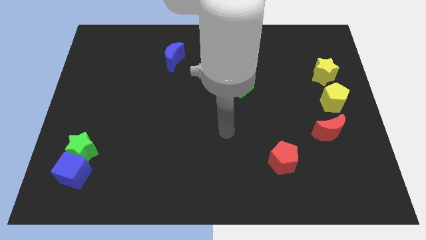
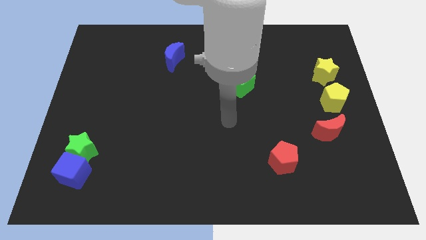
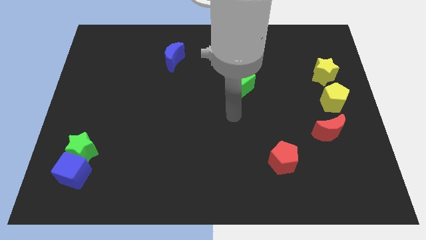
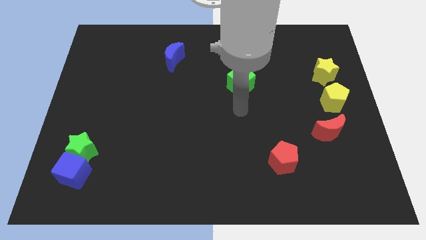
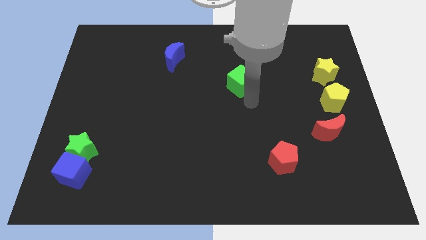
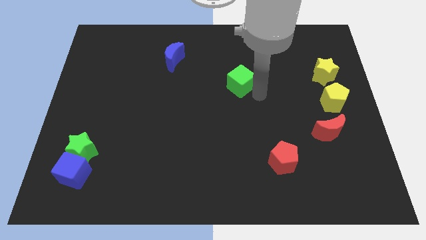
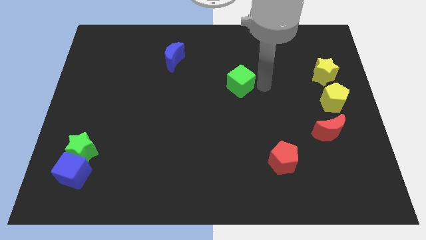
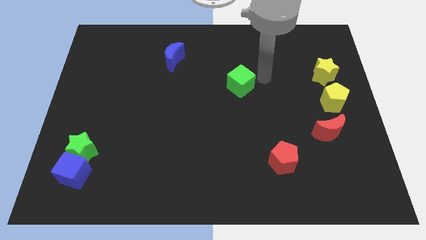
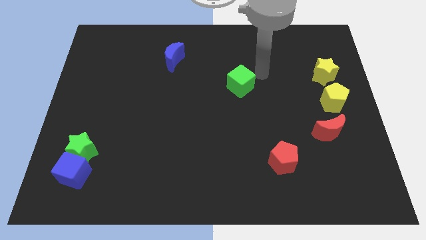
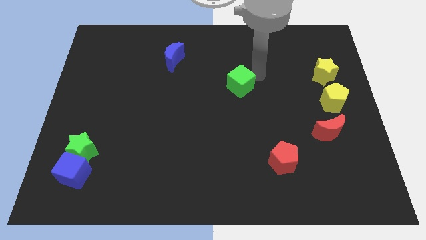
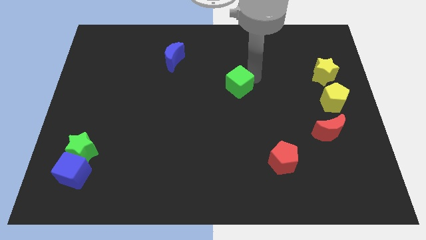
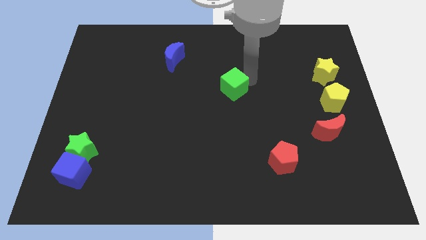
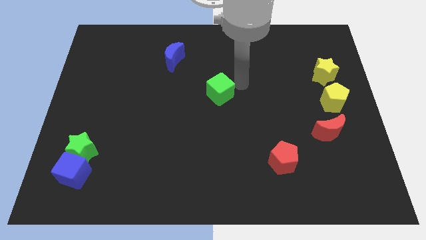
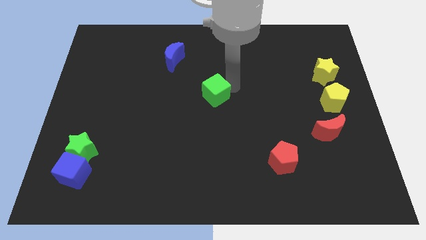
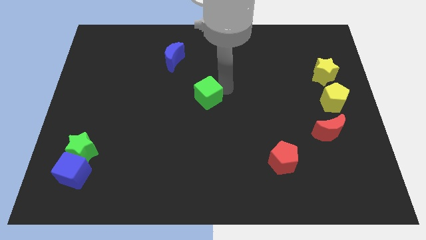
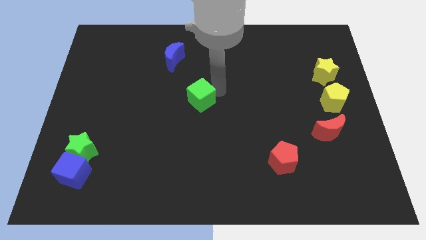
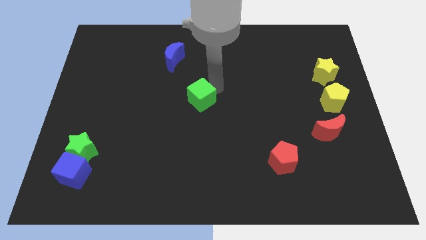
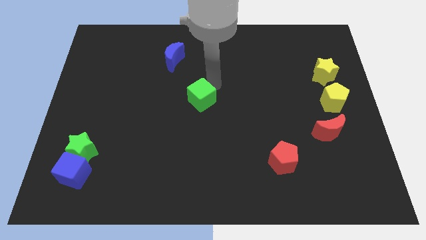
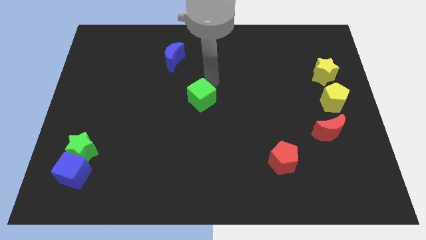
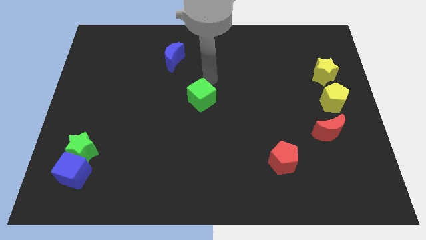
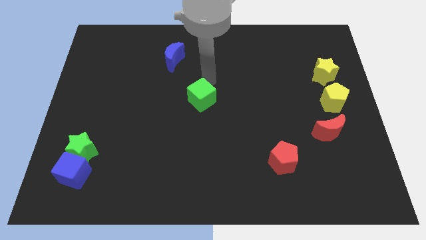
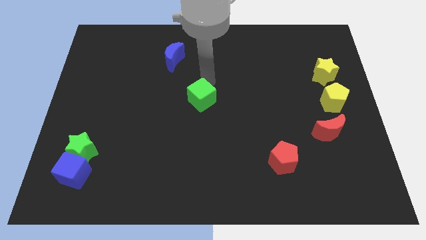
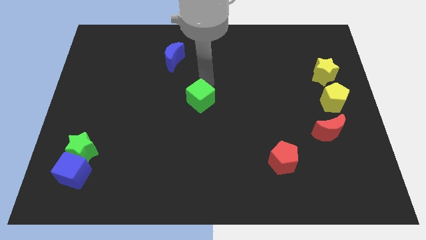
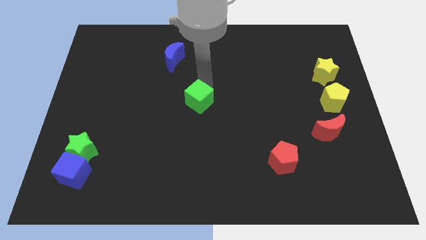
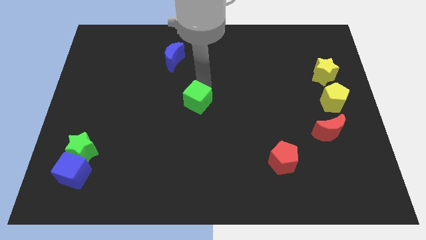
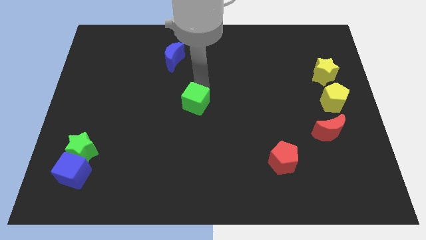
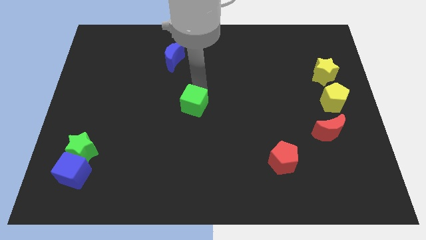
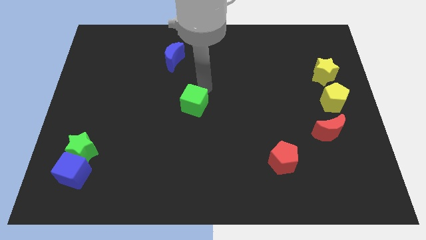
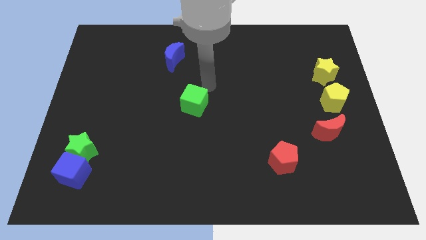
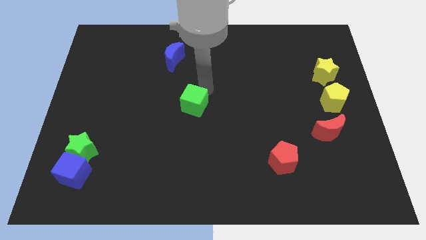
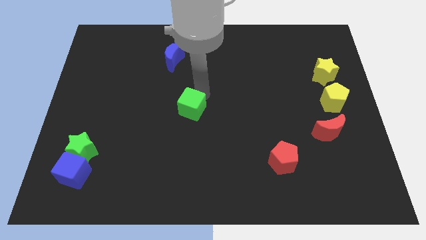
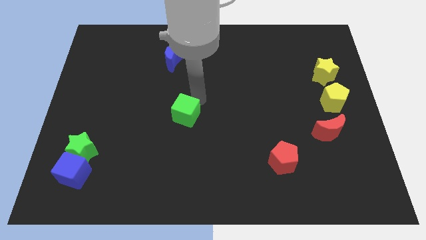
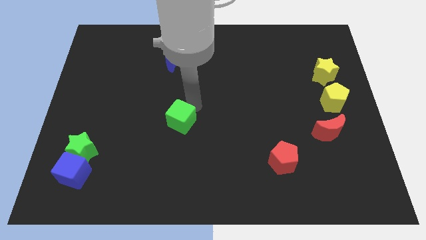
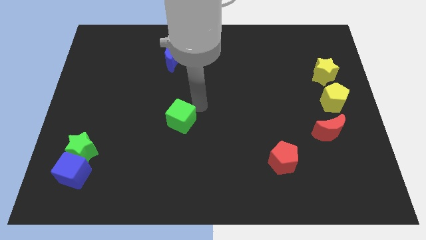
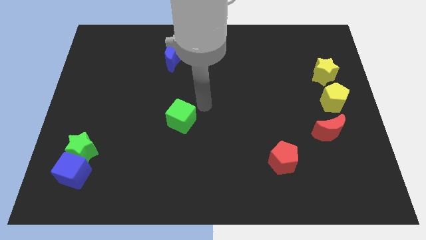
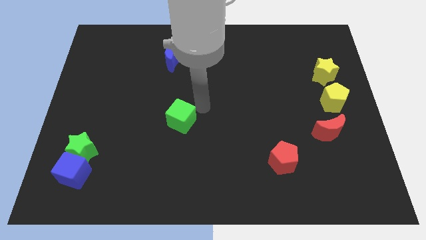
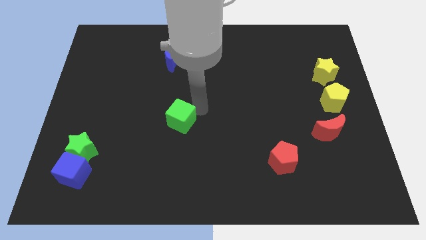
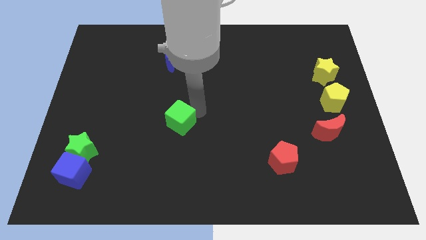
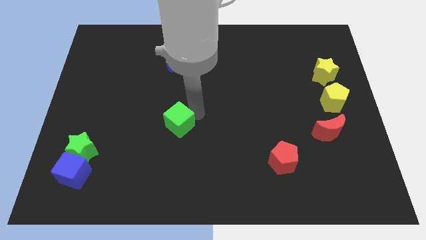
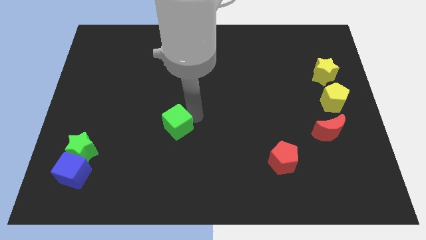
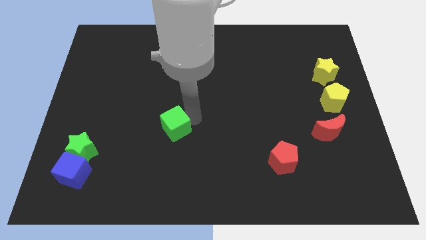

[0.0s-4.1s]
push the green cube downwards and to the left diagonally

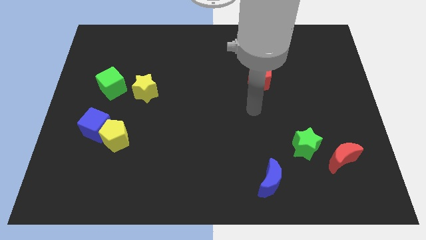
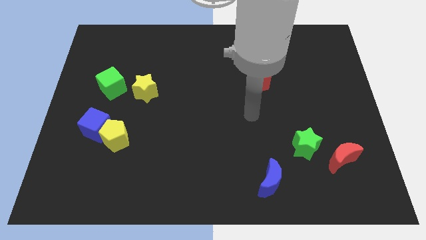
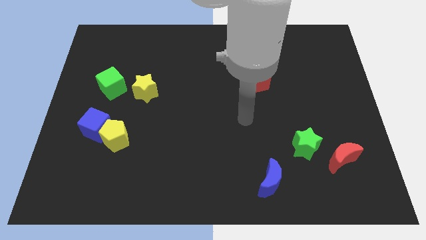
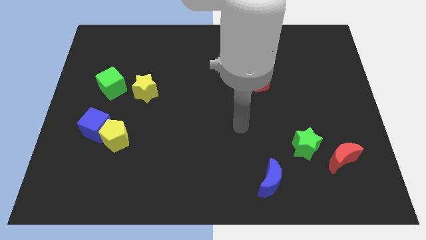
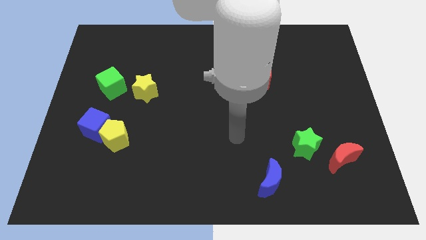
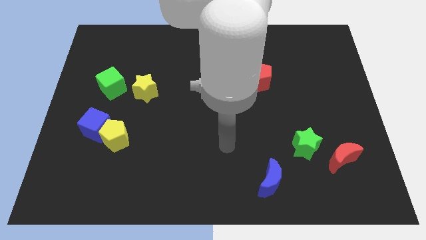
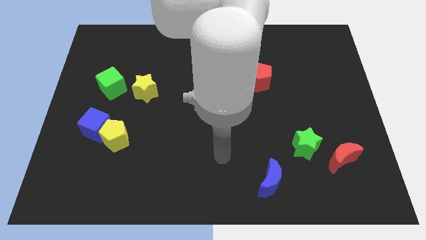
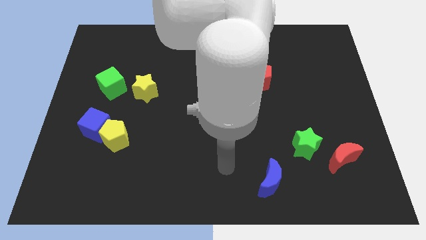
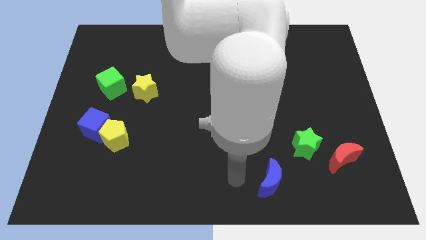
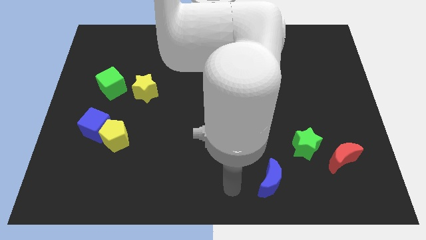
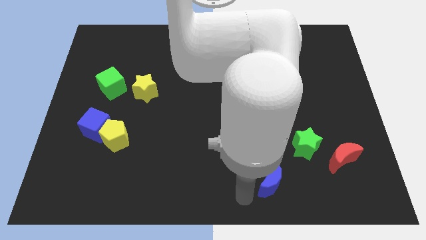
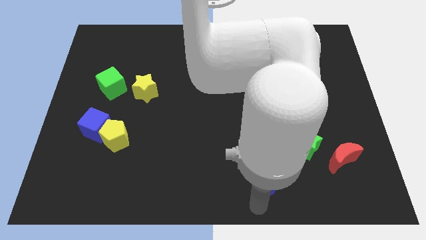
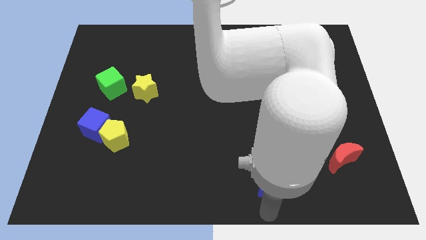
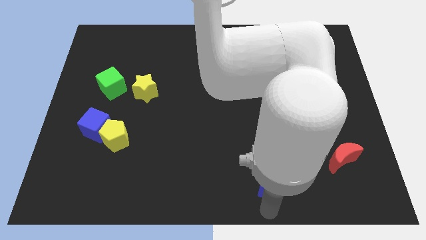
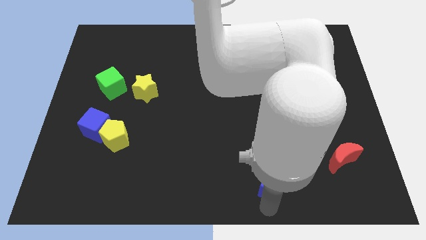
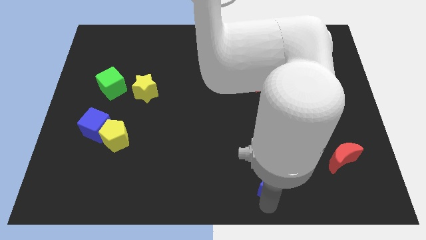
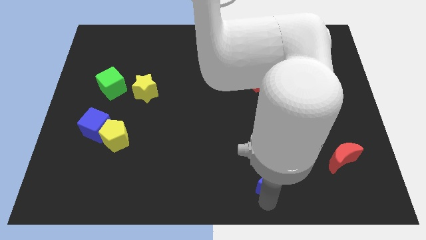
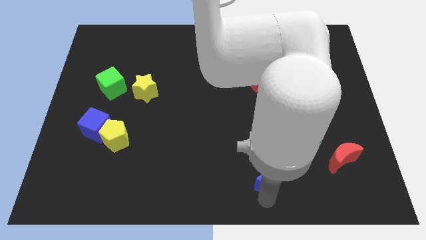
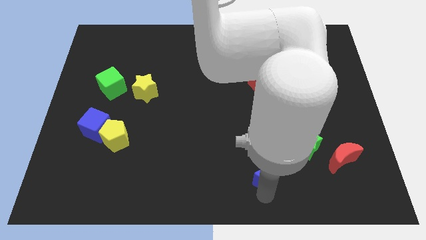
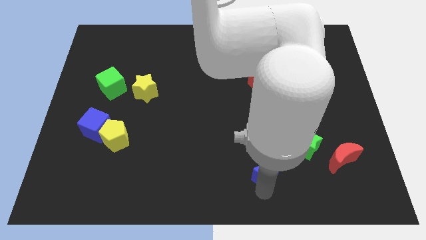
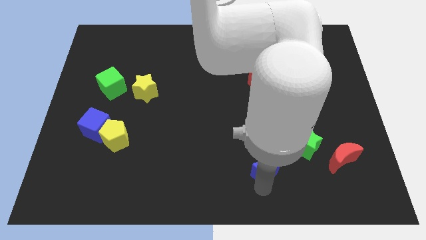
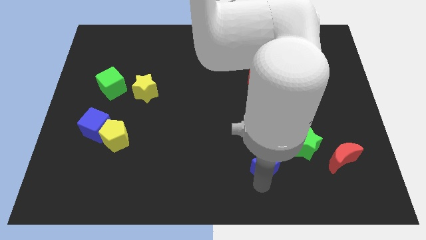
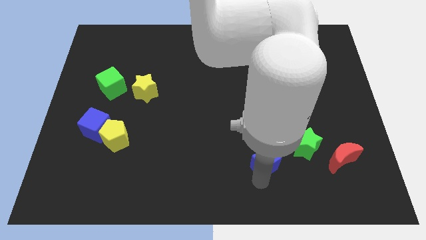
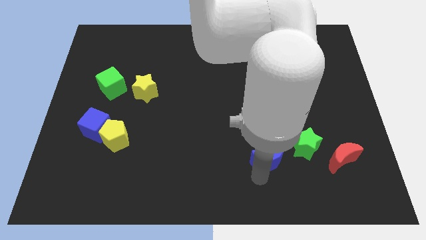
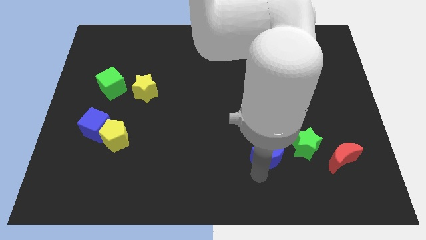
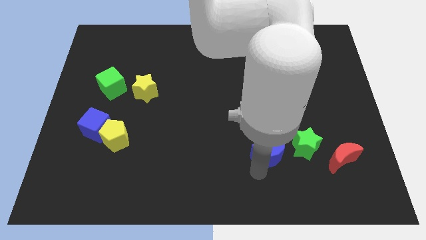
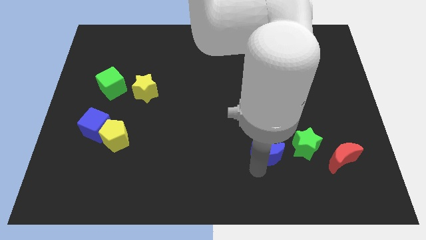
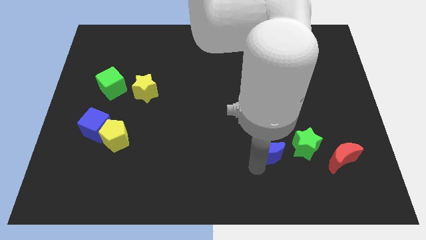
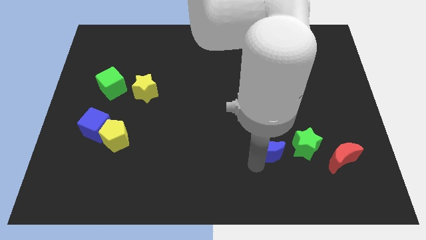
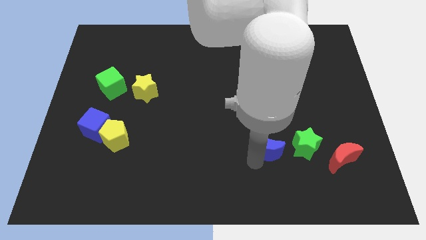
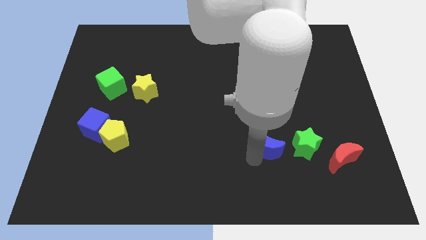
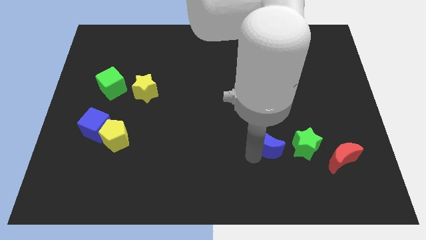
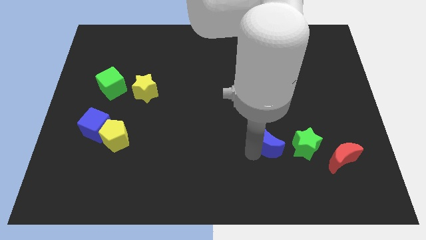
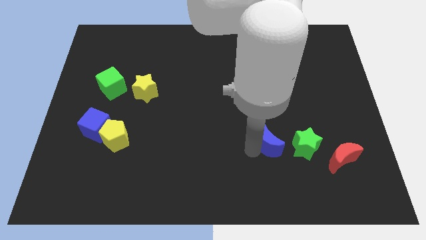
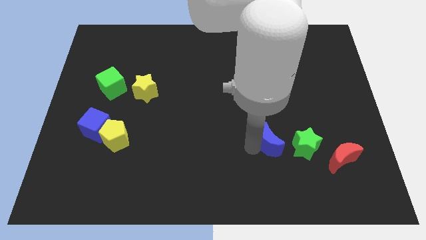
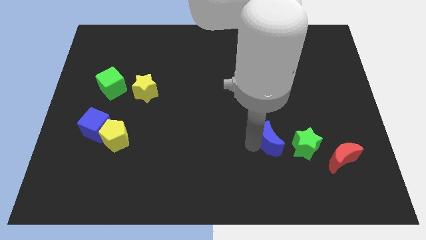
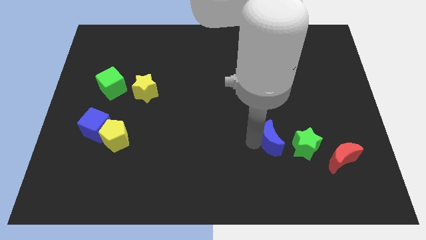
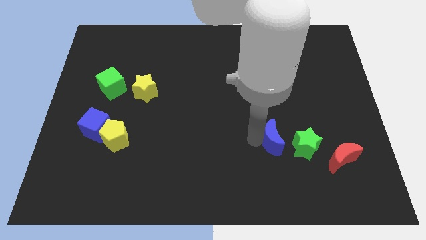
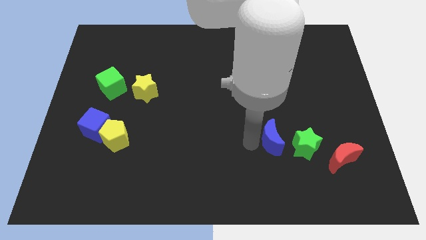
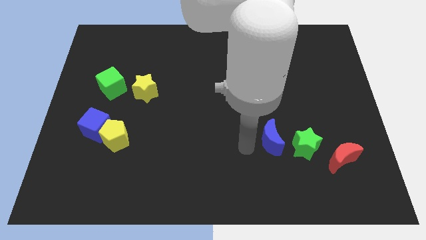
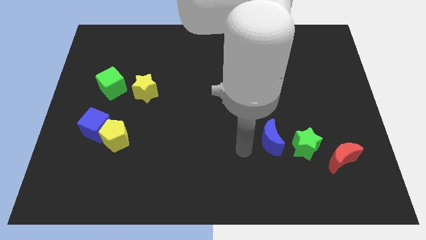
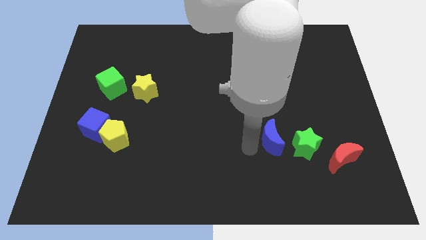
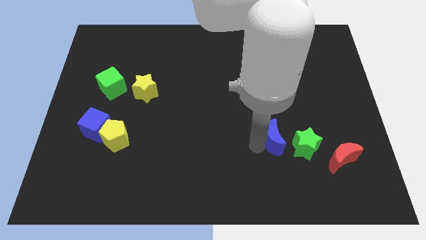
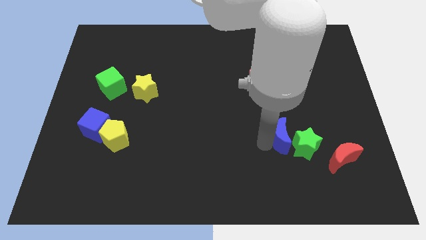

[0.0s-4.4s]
push the blue moon a bit upwards and right diagonally
